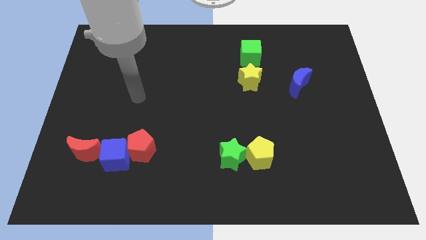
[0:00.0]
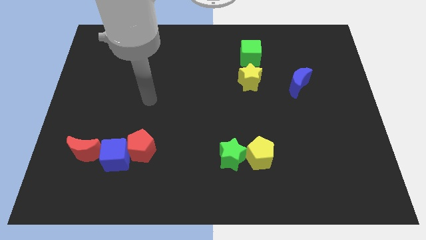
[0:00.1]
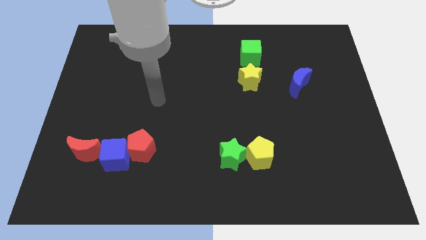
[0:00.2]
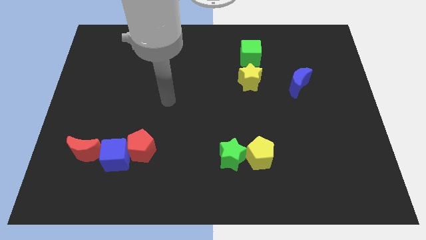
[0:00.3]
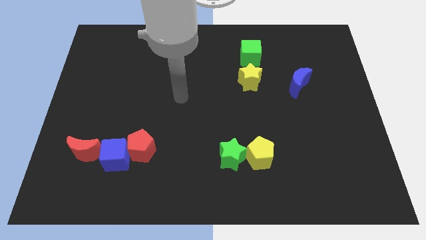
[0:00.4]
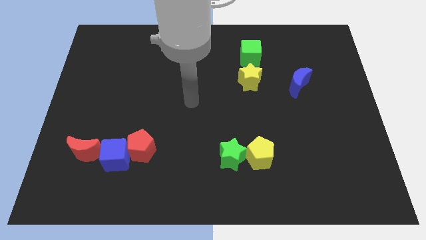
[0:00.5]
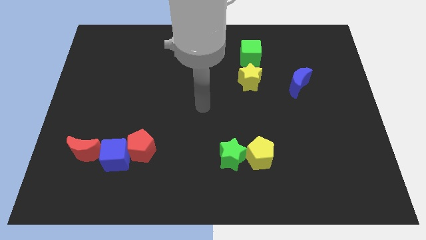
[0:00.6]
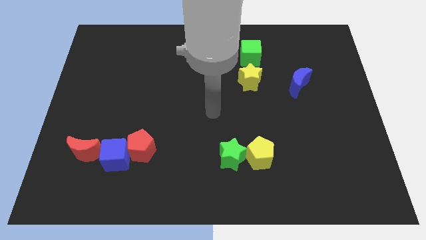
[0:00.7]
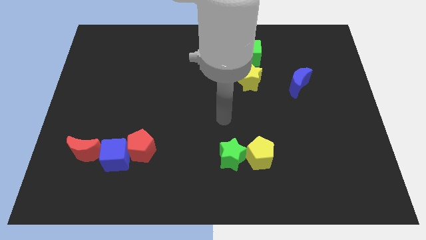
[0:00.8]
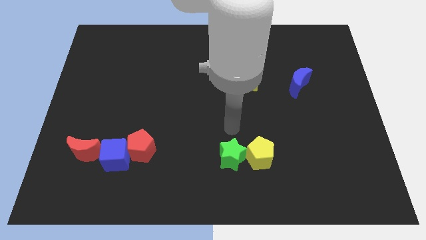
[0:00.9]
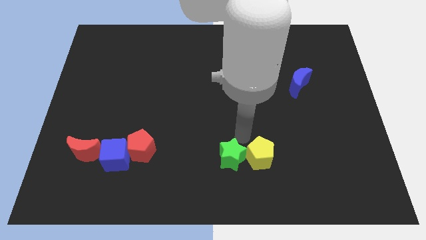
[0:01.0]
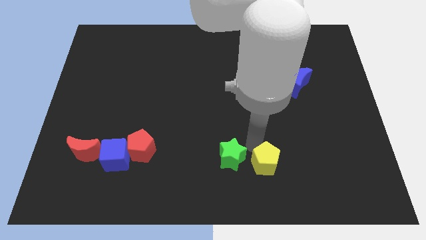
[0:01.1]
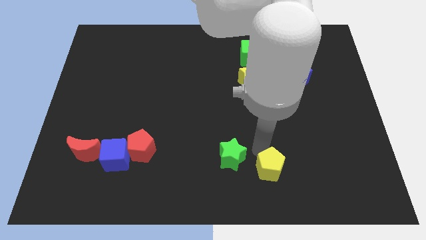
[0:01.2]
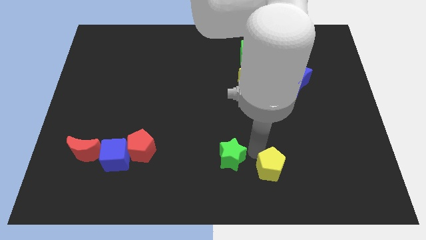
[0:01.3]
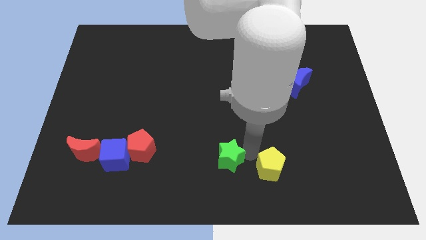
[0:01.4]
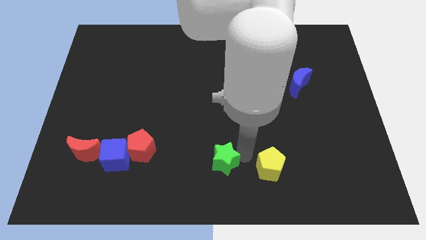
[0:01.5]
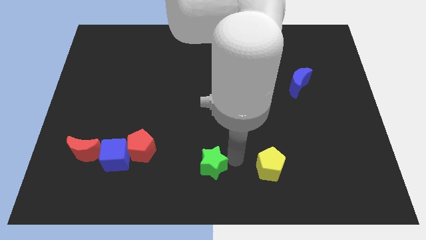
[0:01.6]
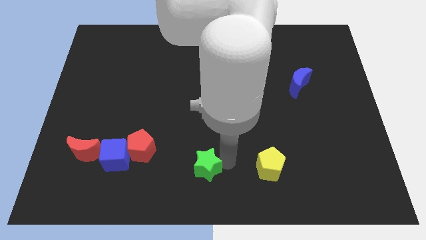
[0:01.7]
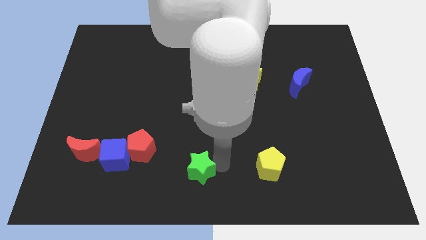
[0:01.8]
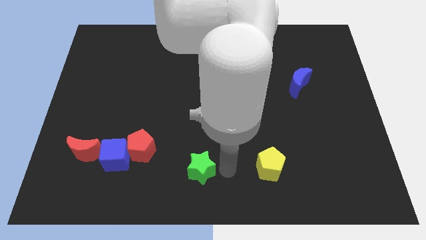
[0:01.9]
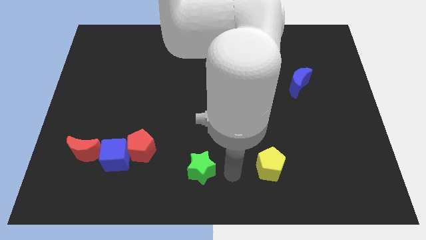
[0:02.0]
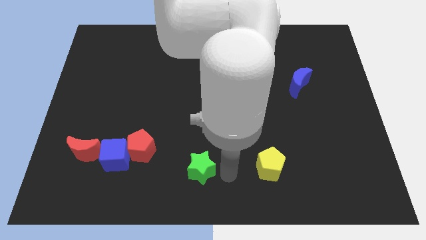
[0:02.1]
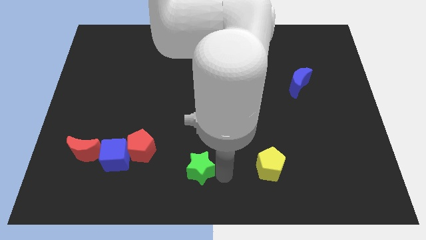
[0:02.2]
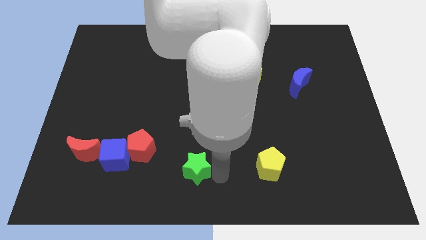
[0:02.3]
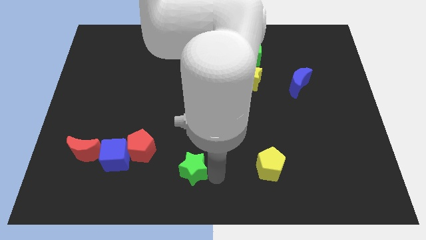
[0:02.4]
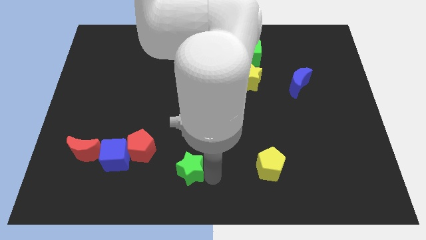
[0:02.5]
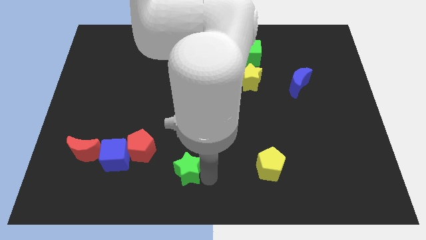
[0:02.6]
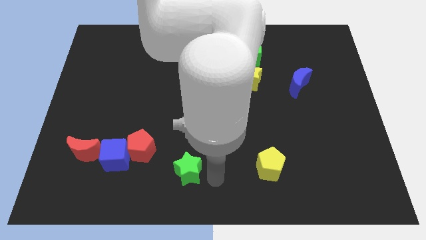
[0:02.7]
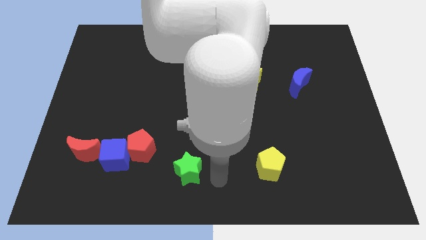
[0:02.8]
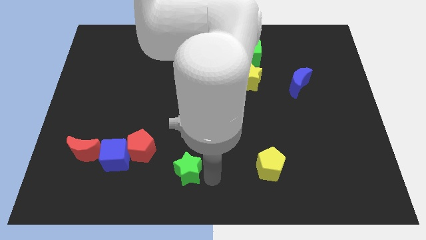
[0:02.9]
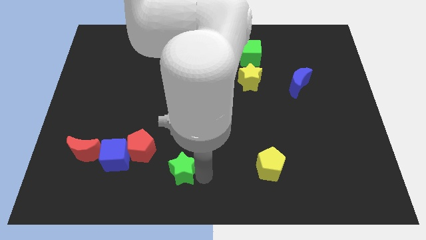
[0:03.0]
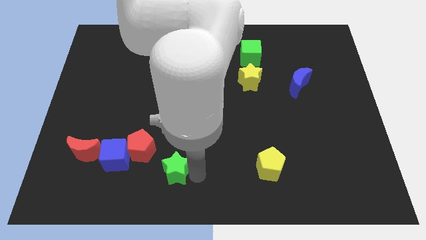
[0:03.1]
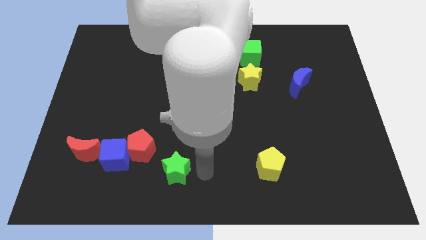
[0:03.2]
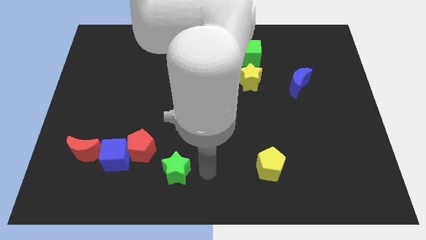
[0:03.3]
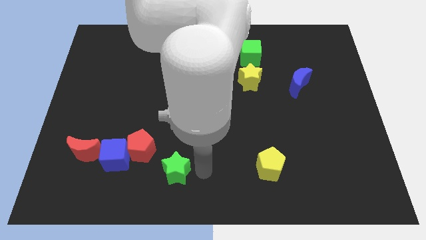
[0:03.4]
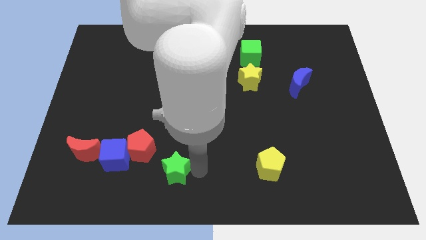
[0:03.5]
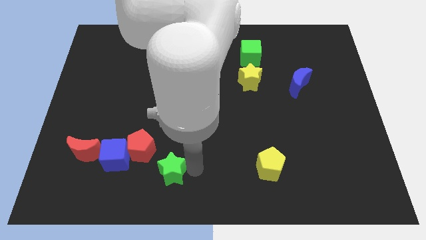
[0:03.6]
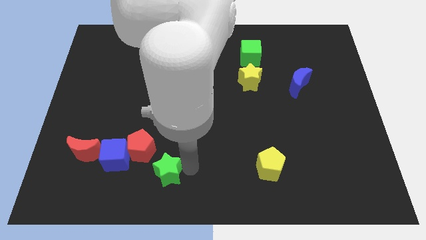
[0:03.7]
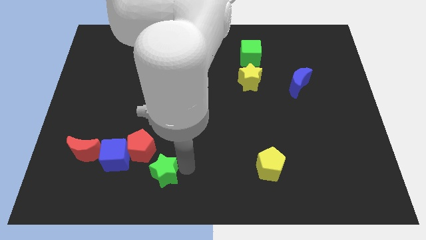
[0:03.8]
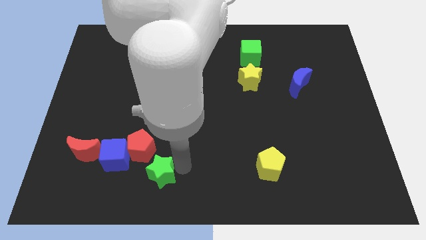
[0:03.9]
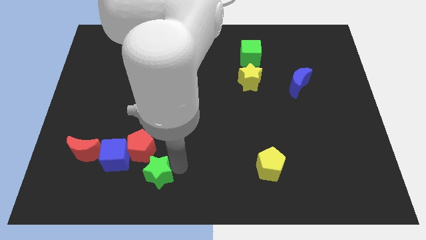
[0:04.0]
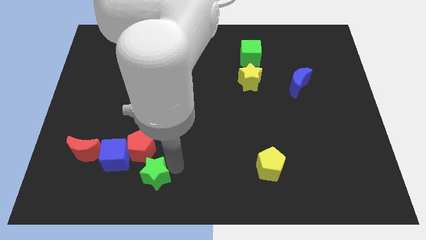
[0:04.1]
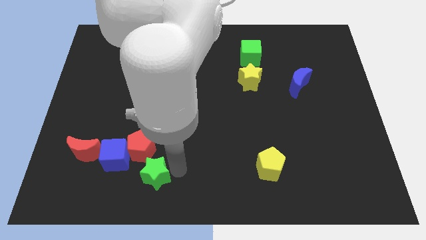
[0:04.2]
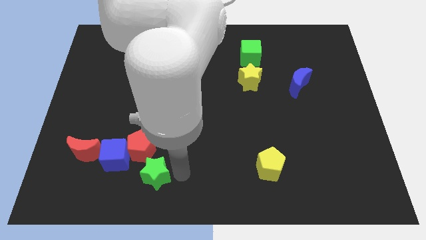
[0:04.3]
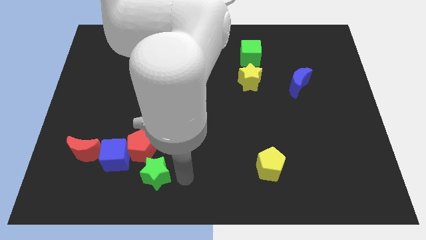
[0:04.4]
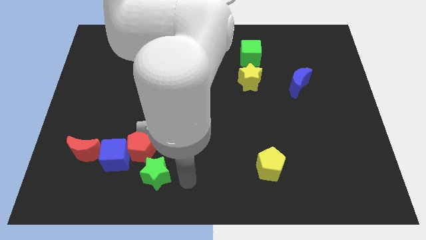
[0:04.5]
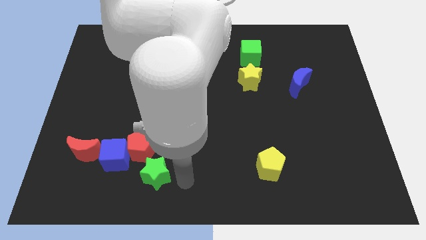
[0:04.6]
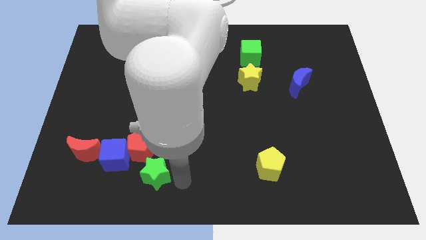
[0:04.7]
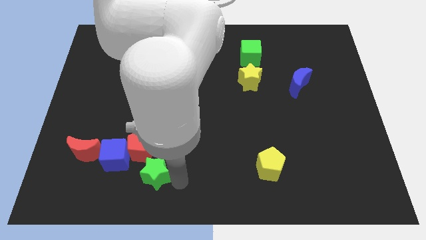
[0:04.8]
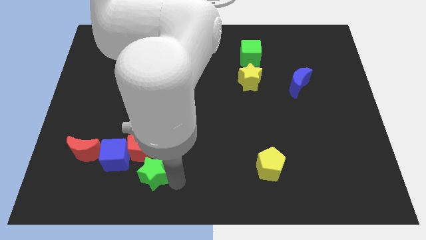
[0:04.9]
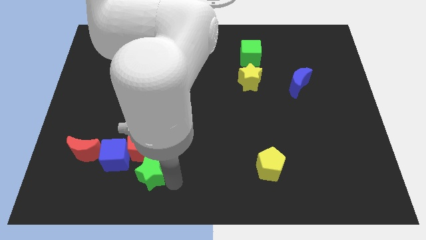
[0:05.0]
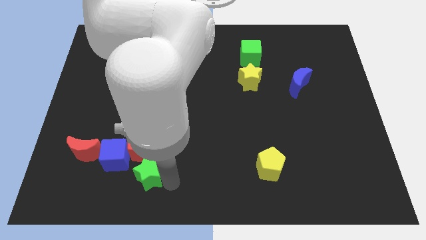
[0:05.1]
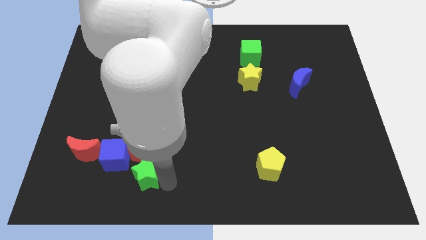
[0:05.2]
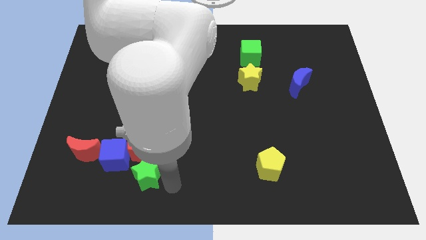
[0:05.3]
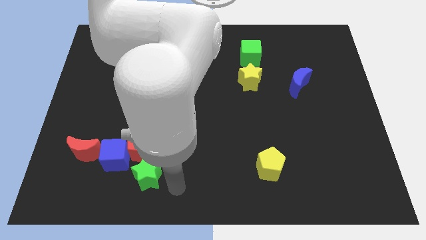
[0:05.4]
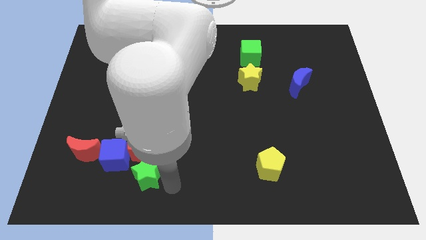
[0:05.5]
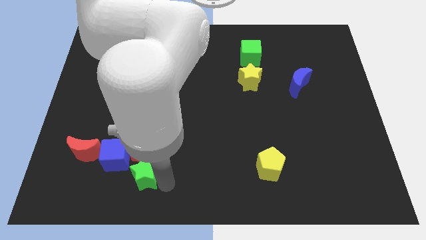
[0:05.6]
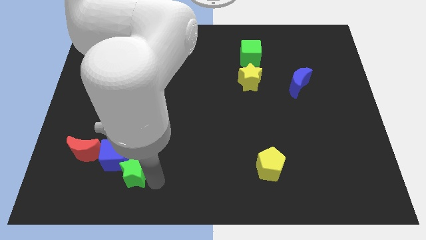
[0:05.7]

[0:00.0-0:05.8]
move the green star next to the blue cube

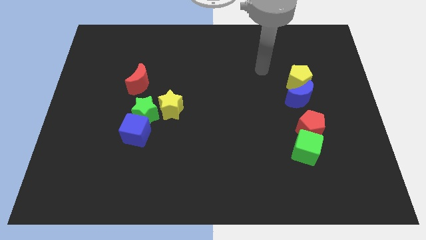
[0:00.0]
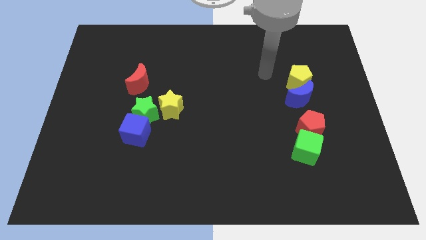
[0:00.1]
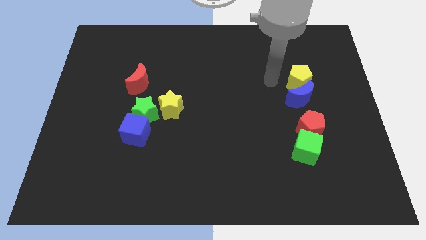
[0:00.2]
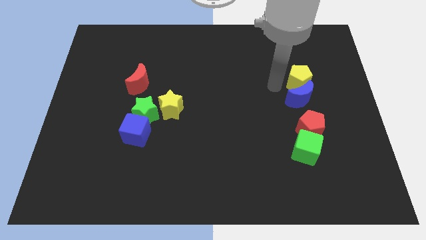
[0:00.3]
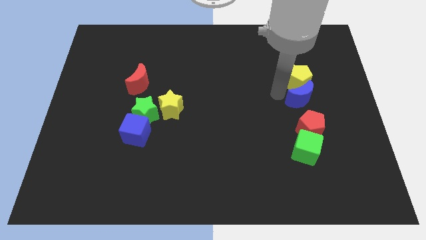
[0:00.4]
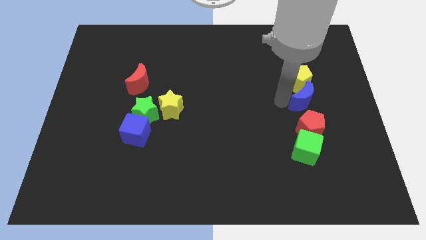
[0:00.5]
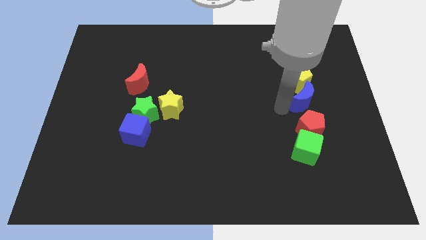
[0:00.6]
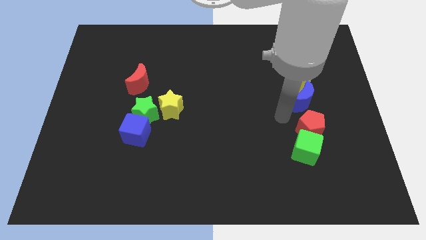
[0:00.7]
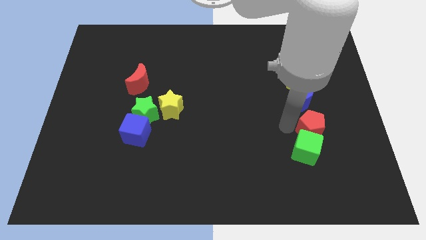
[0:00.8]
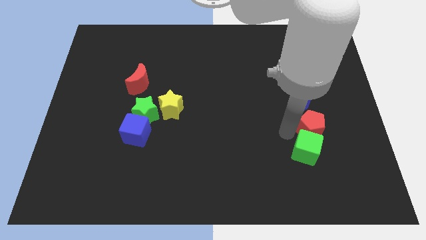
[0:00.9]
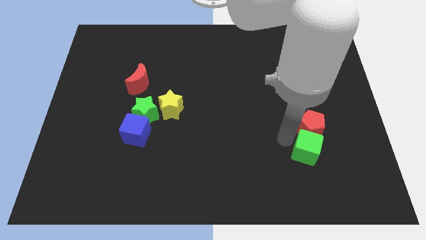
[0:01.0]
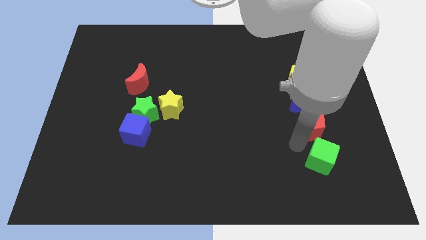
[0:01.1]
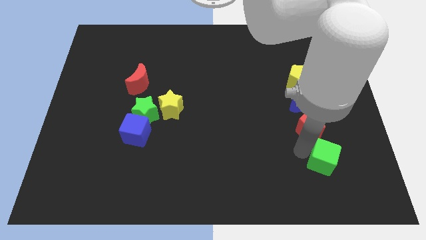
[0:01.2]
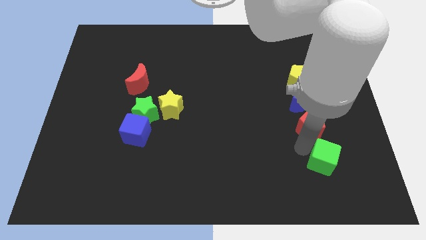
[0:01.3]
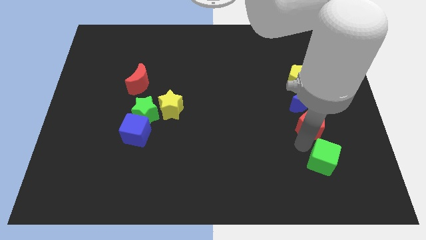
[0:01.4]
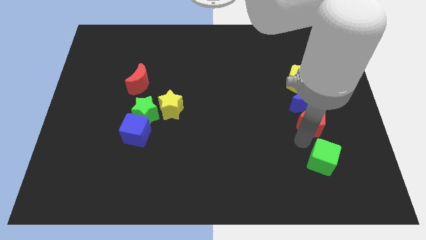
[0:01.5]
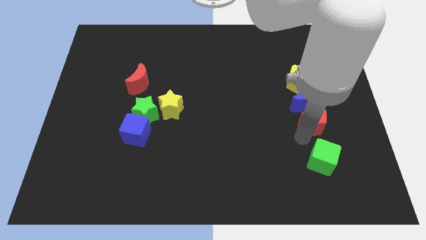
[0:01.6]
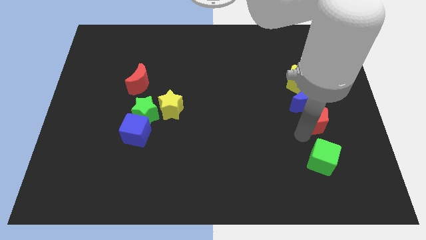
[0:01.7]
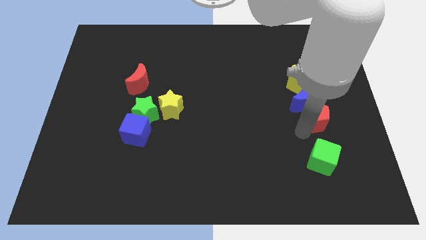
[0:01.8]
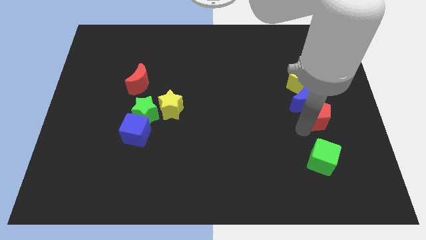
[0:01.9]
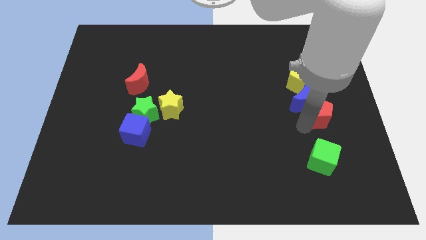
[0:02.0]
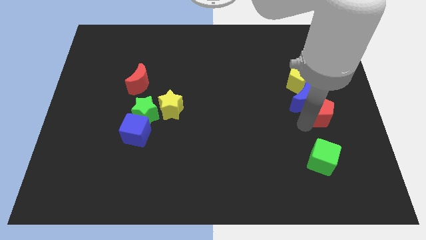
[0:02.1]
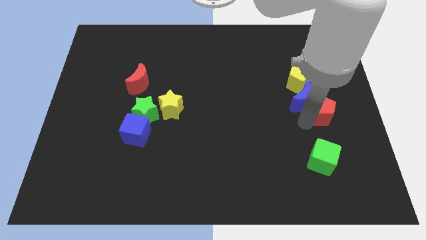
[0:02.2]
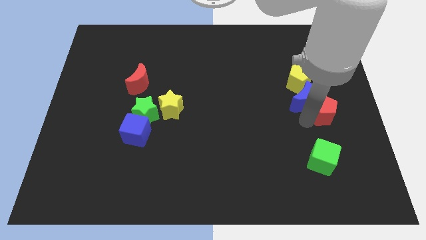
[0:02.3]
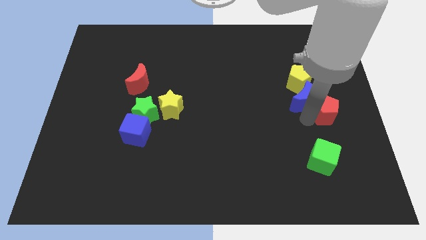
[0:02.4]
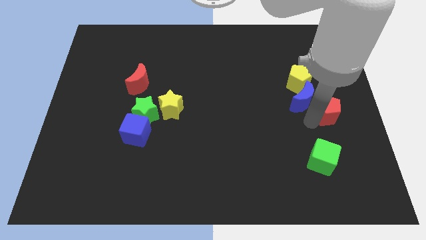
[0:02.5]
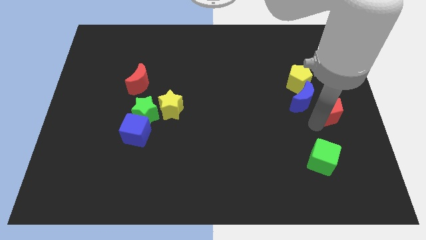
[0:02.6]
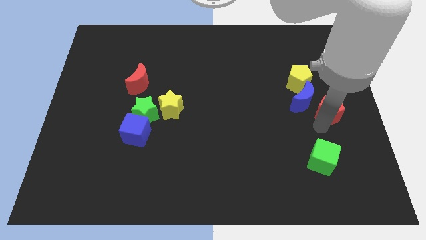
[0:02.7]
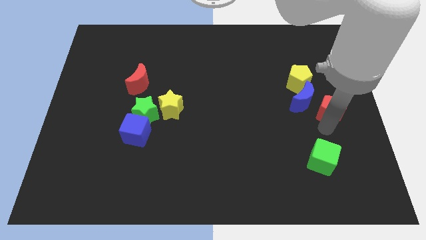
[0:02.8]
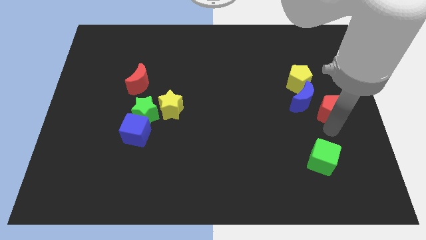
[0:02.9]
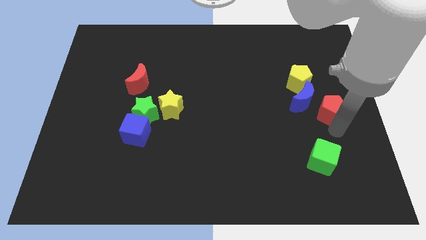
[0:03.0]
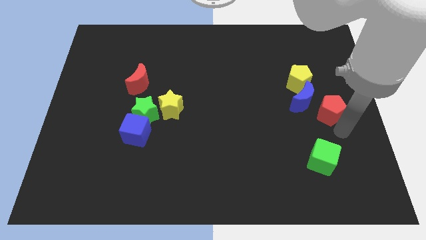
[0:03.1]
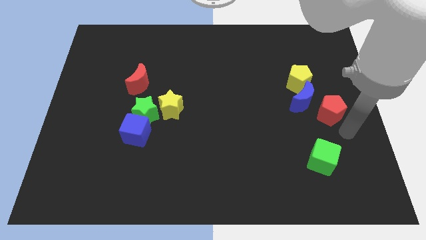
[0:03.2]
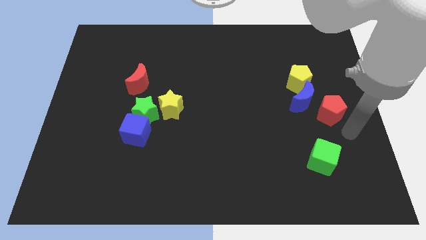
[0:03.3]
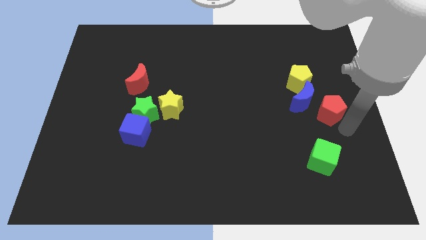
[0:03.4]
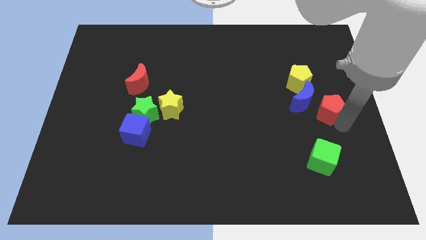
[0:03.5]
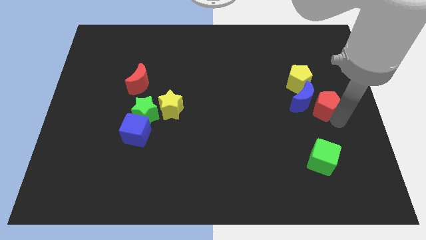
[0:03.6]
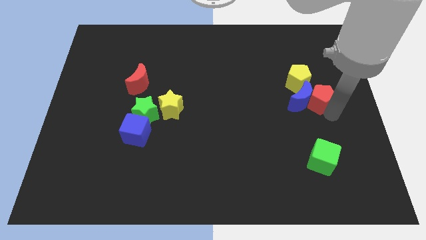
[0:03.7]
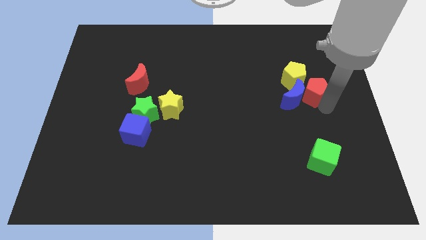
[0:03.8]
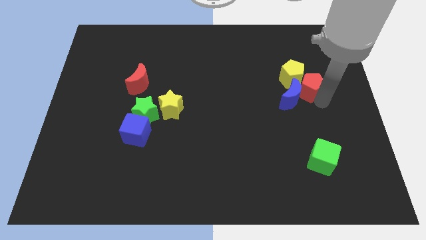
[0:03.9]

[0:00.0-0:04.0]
push the red pentagon close to the yellow pentagon
